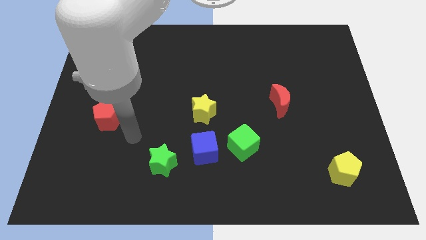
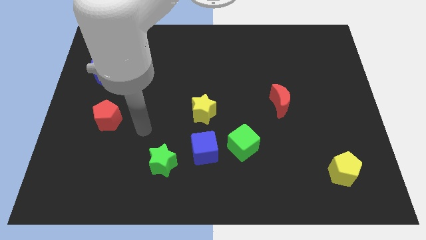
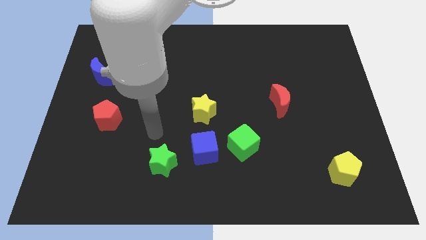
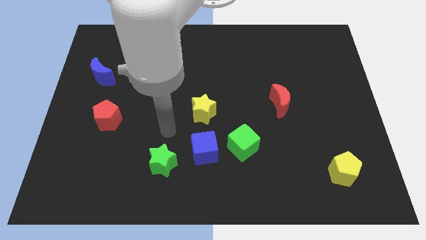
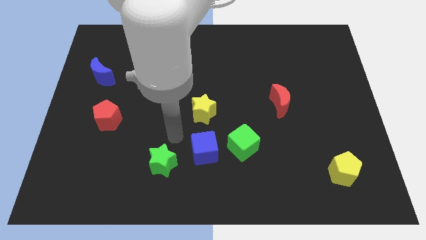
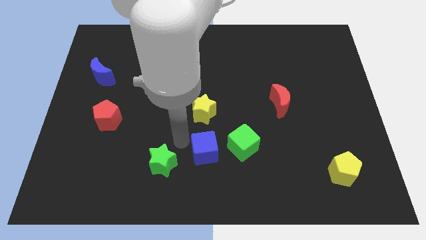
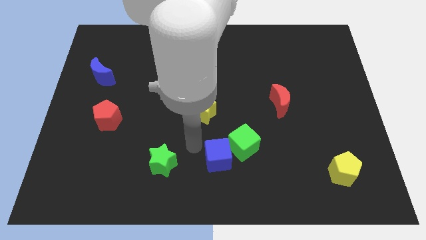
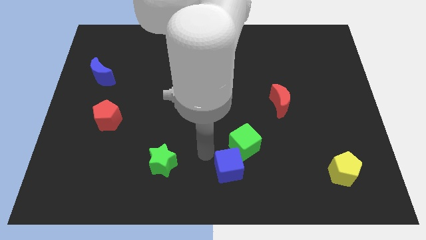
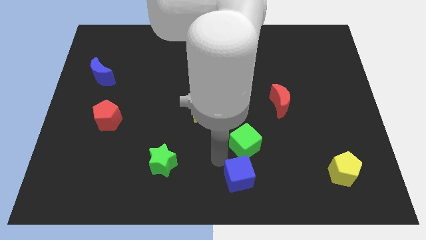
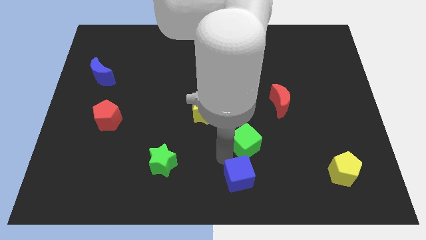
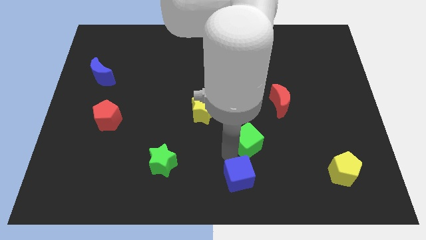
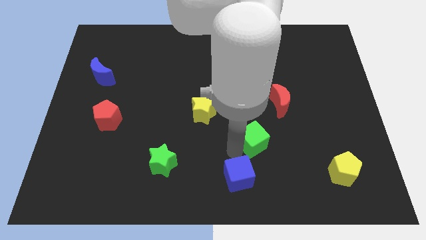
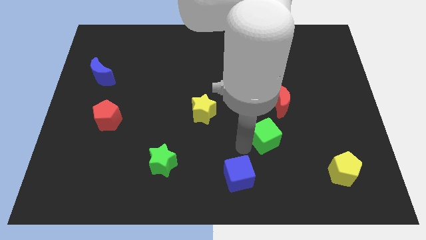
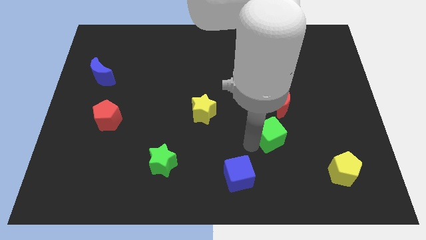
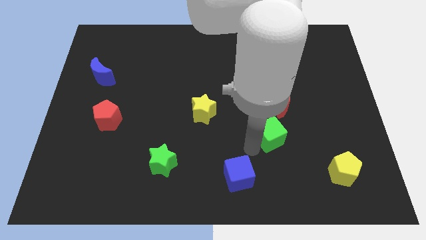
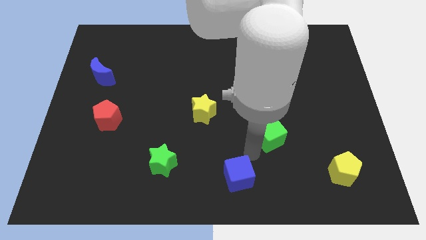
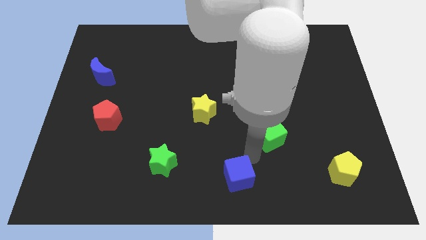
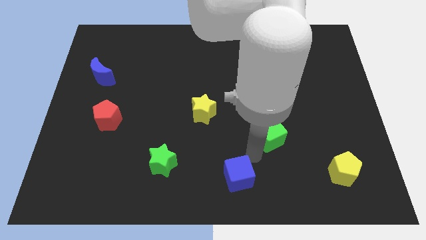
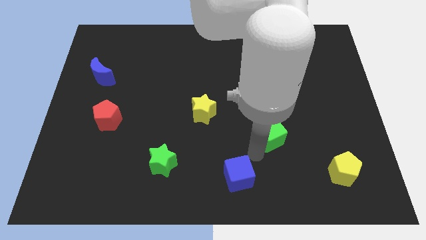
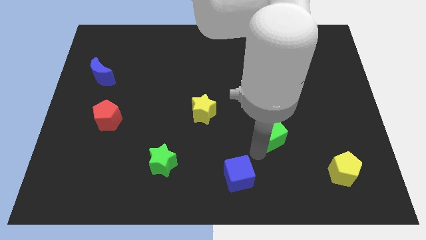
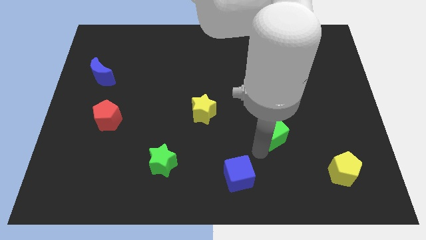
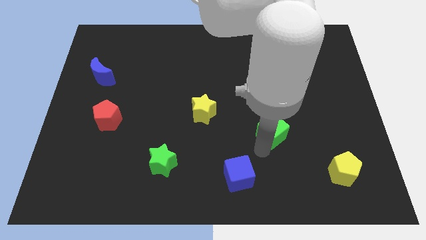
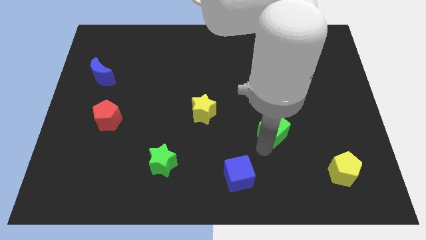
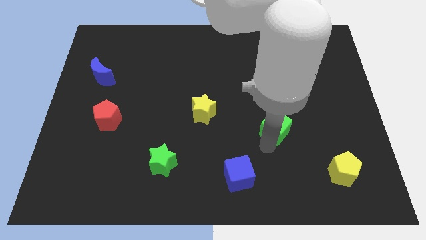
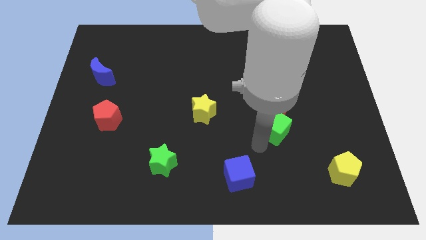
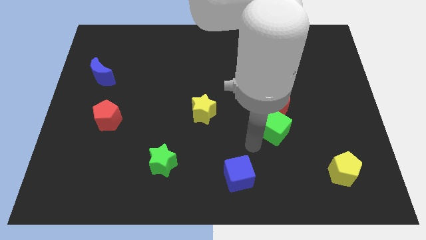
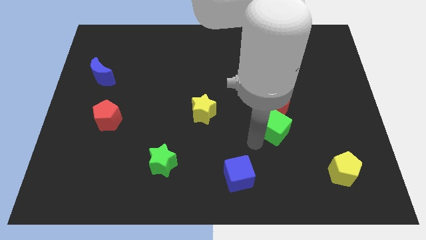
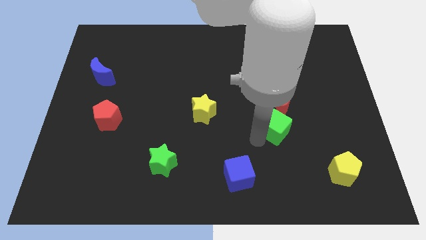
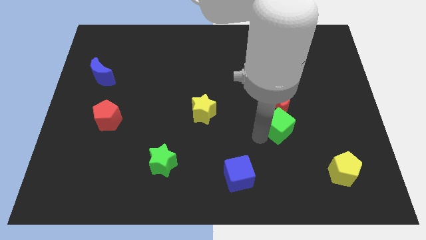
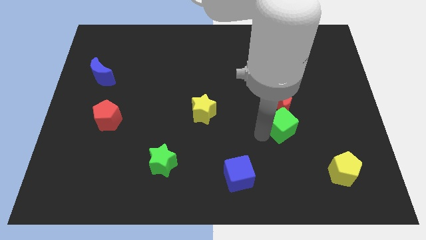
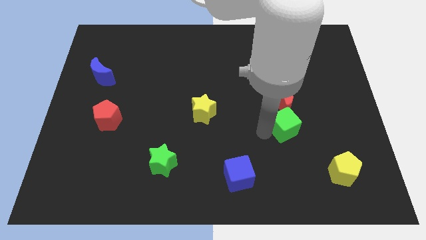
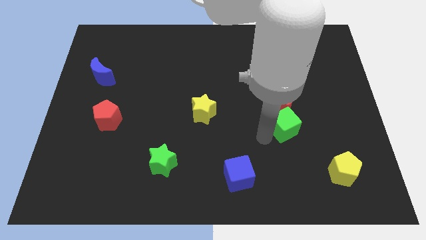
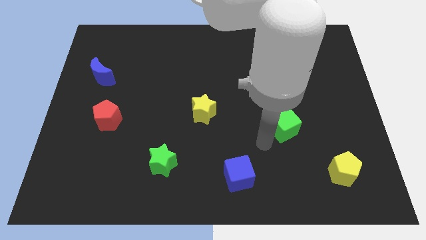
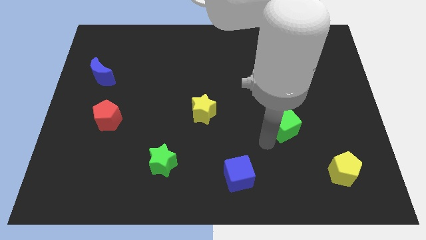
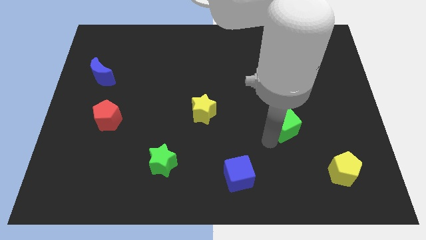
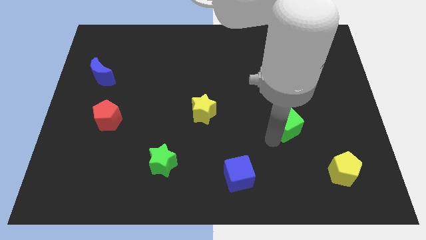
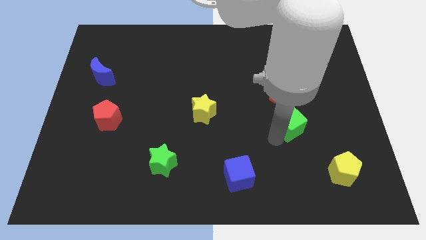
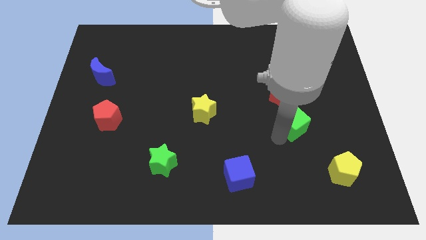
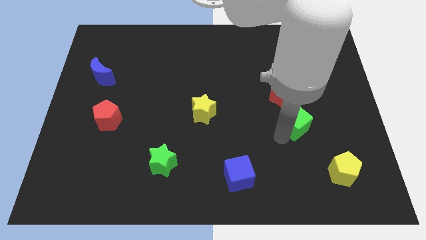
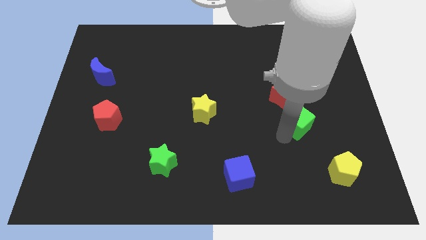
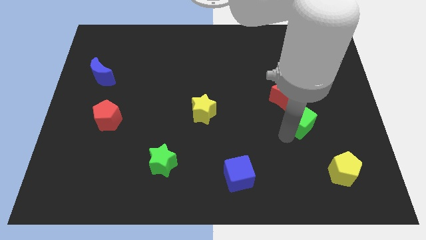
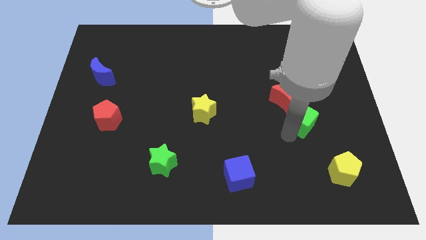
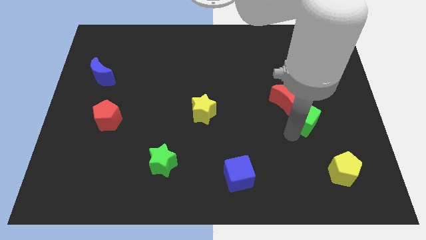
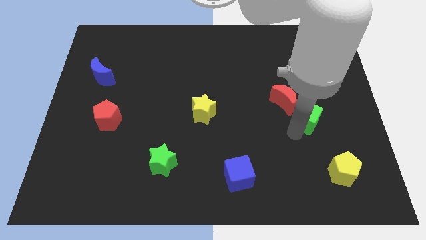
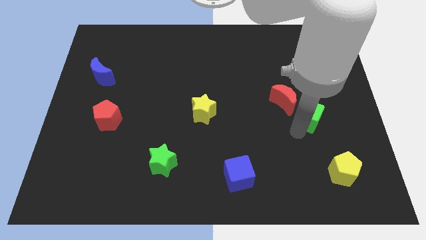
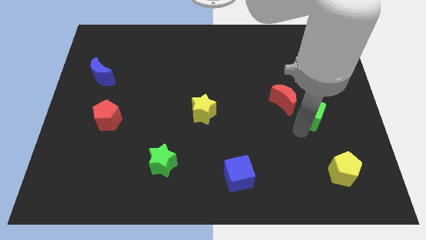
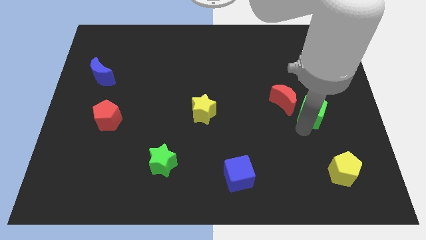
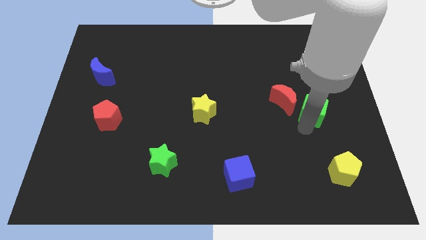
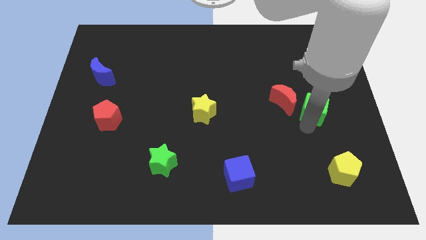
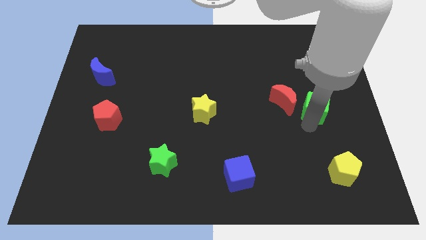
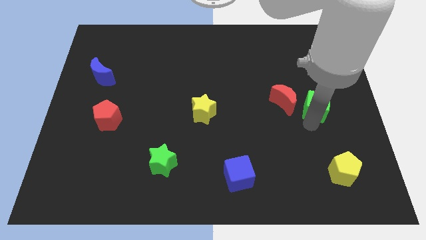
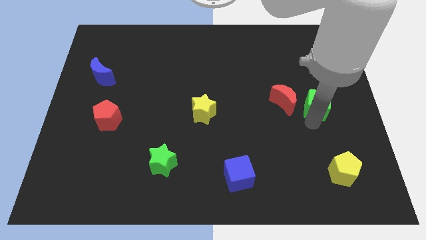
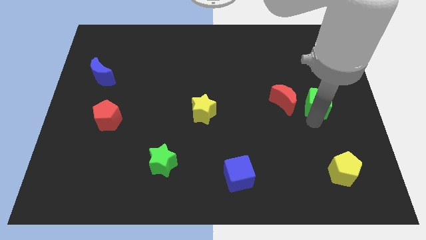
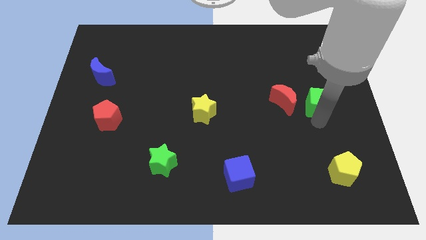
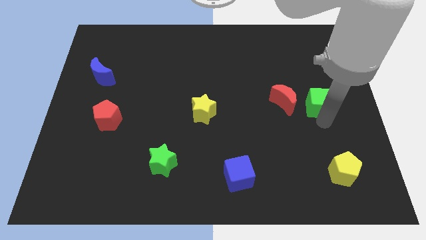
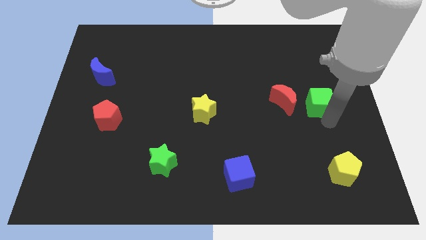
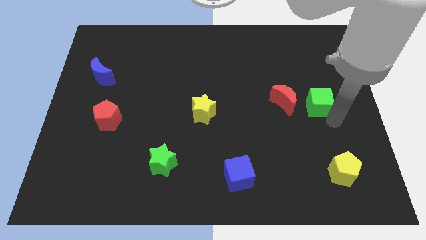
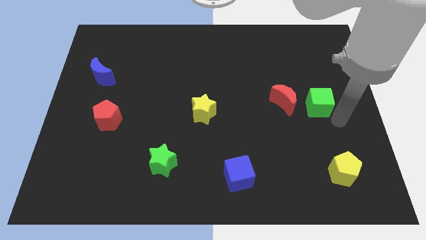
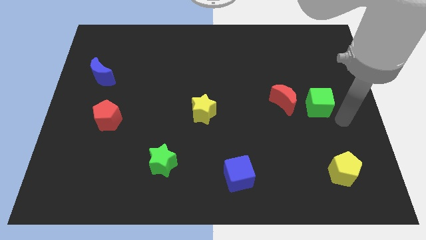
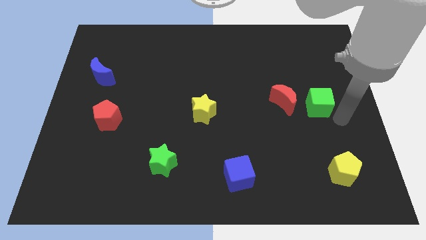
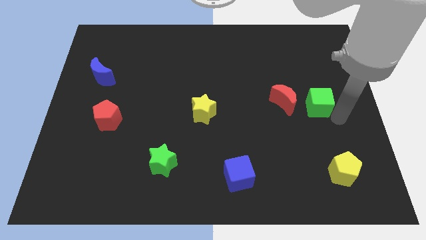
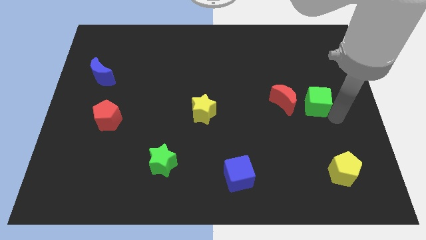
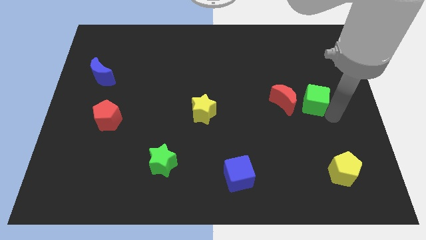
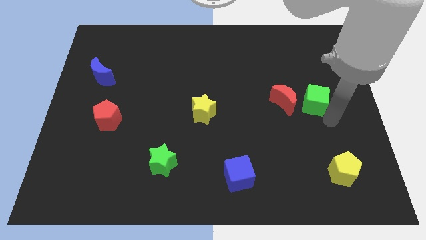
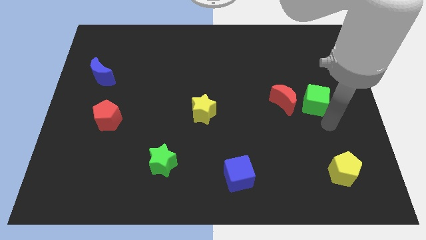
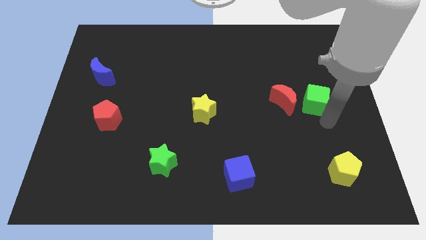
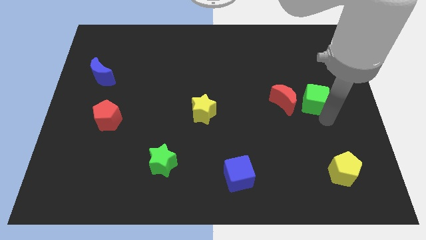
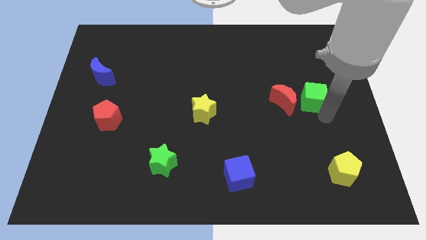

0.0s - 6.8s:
move the green cube to the top right of the red moon

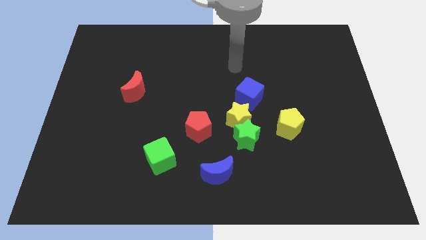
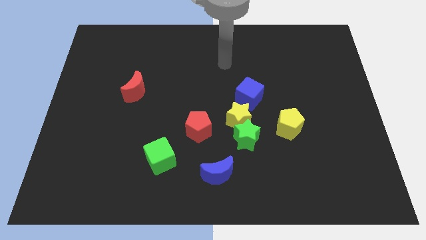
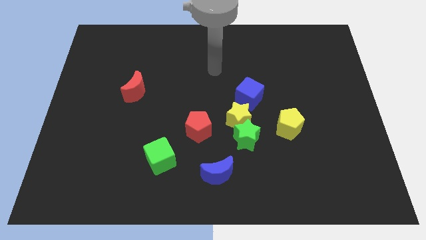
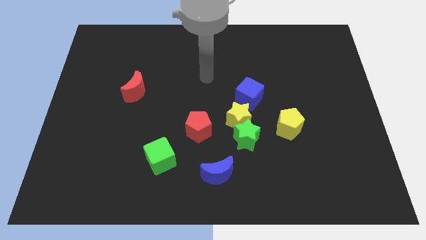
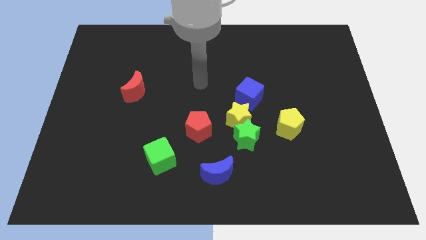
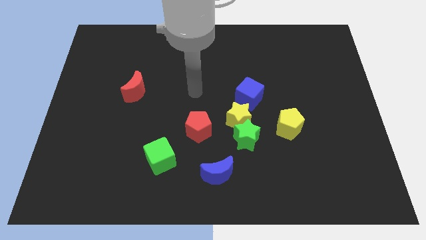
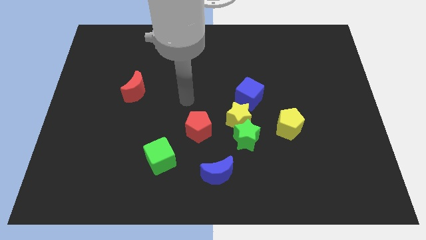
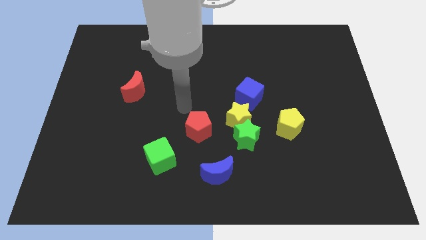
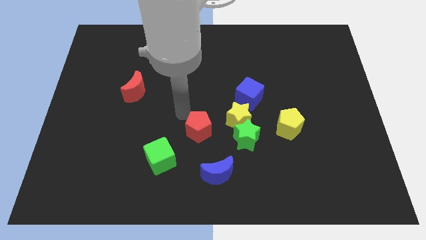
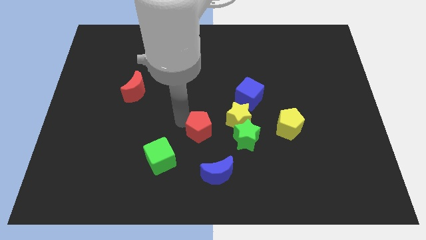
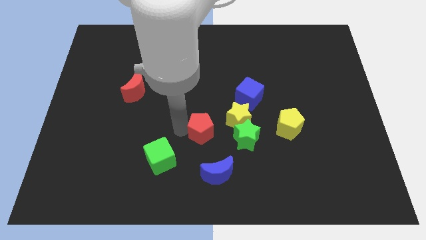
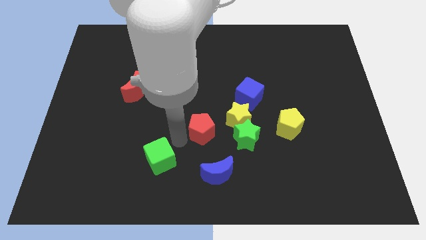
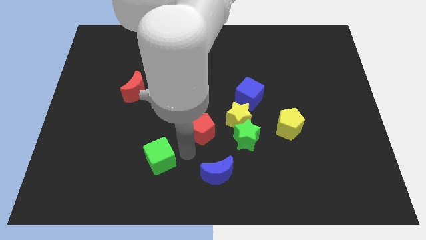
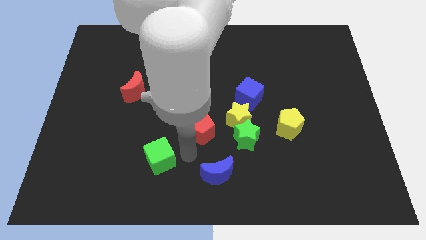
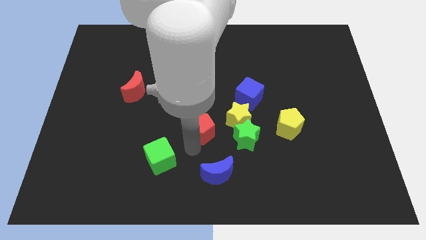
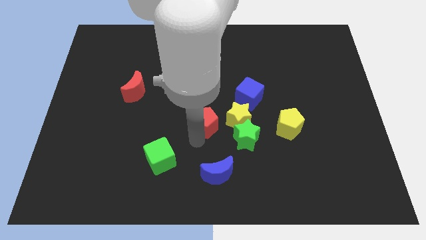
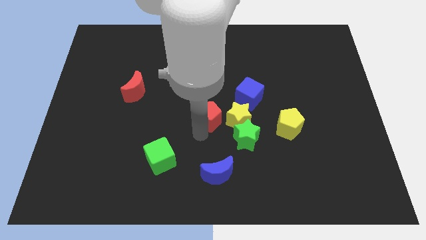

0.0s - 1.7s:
push the red pentagon diagonally up and to the left of the yellow star
